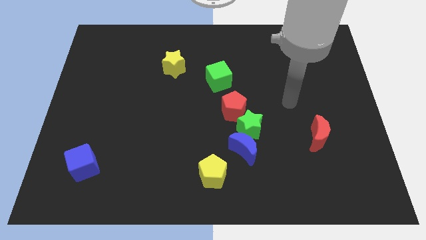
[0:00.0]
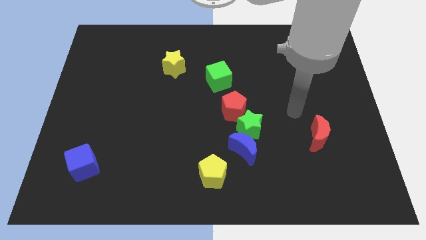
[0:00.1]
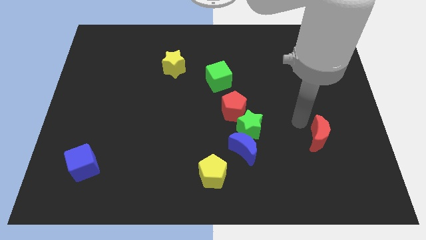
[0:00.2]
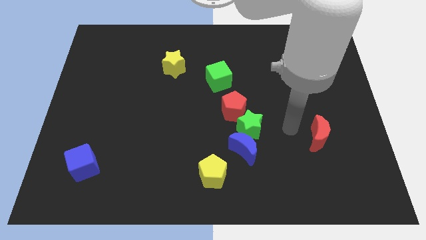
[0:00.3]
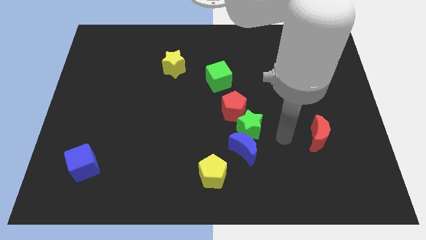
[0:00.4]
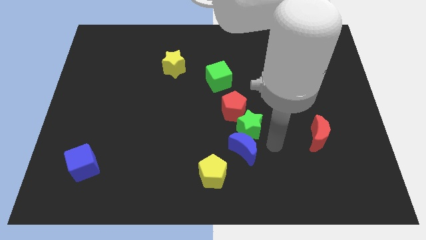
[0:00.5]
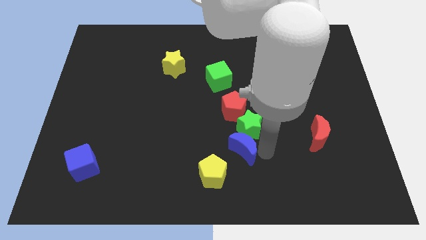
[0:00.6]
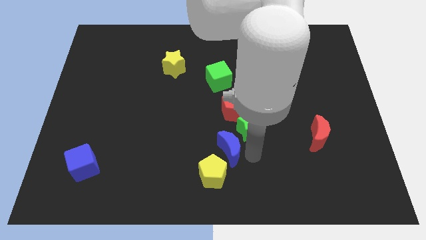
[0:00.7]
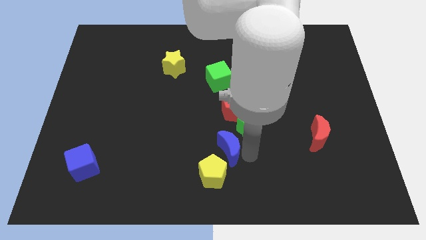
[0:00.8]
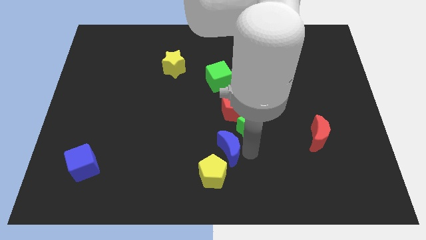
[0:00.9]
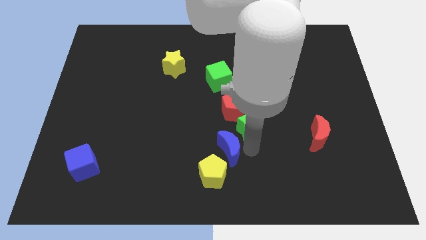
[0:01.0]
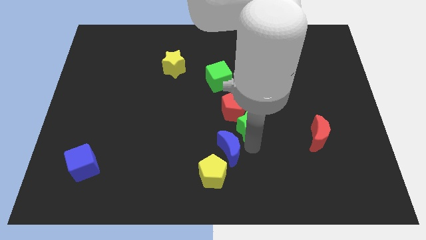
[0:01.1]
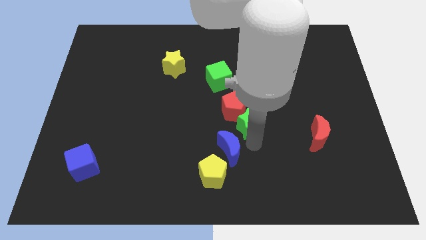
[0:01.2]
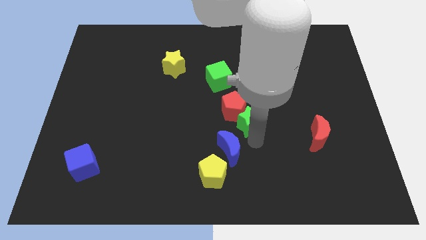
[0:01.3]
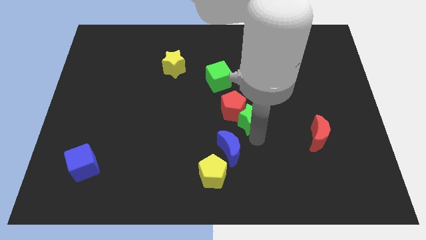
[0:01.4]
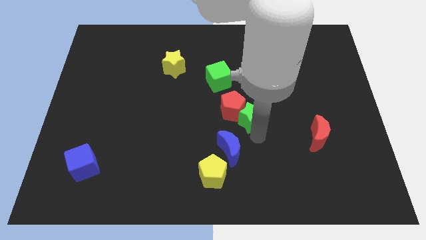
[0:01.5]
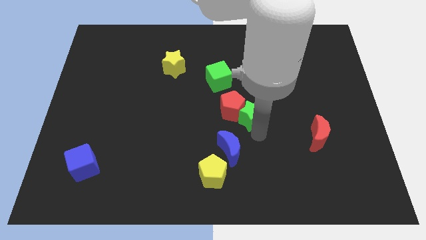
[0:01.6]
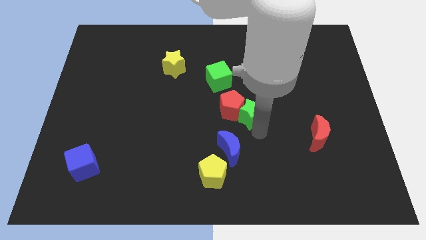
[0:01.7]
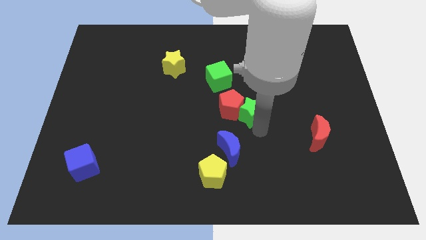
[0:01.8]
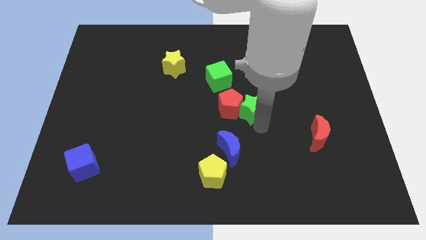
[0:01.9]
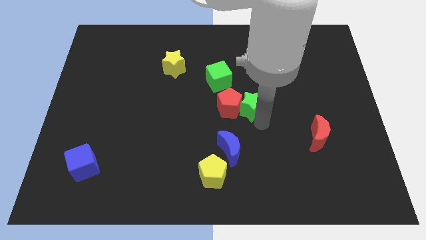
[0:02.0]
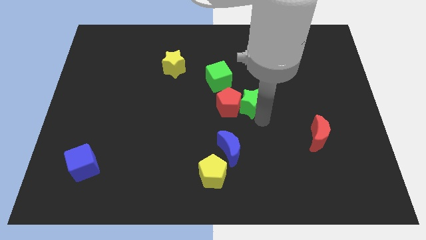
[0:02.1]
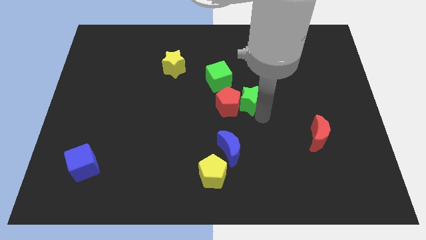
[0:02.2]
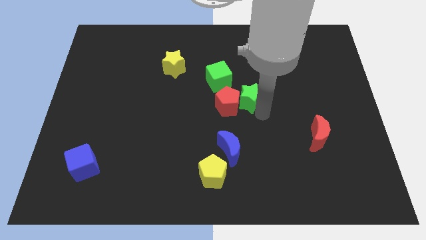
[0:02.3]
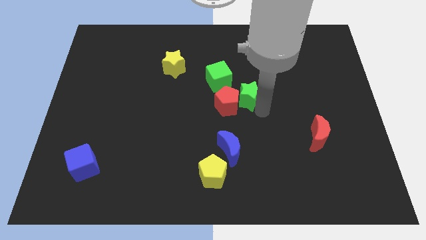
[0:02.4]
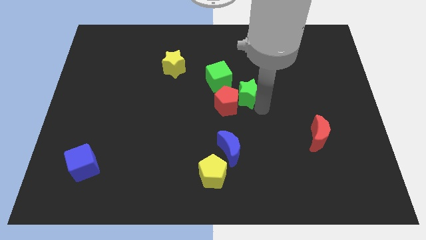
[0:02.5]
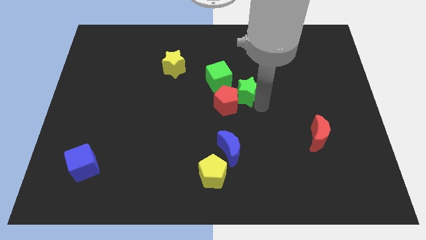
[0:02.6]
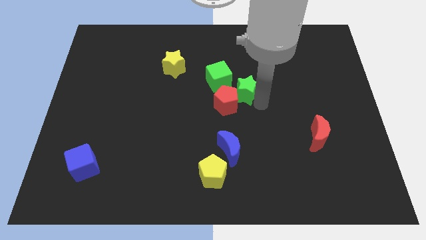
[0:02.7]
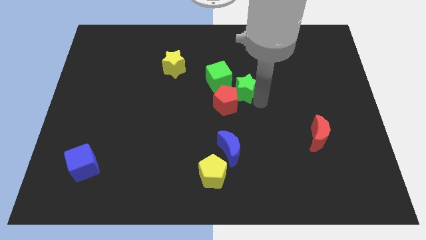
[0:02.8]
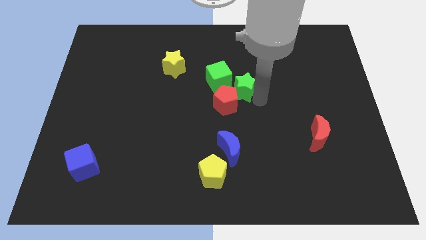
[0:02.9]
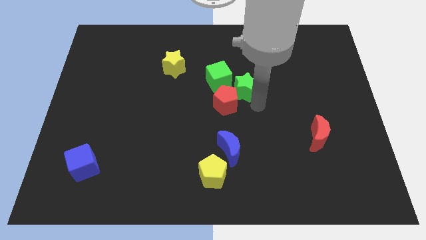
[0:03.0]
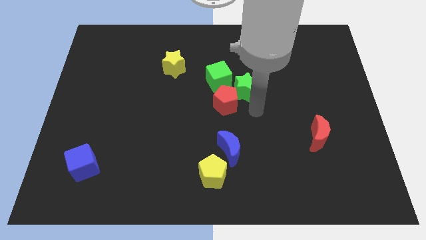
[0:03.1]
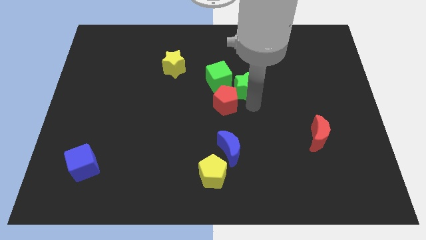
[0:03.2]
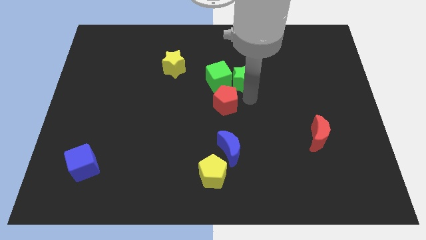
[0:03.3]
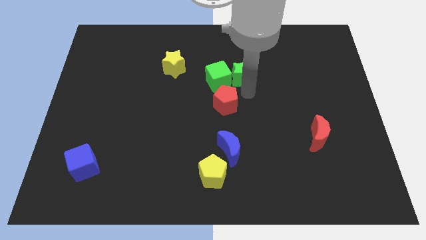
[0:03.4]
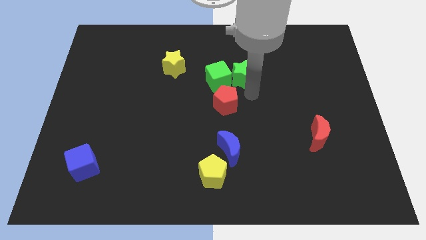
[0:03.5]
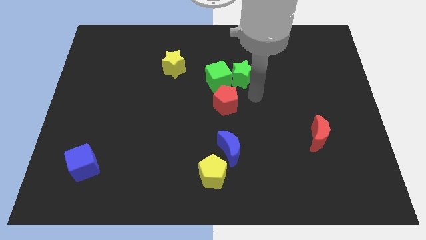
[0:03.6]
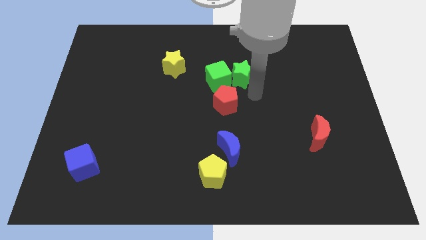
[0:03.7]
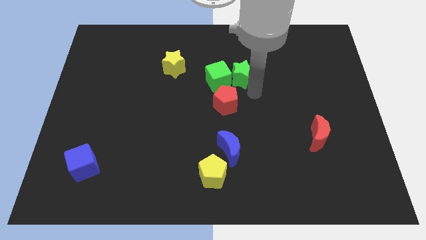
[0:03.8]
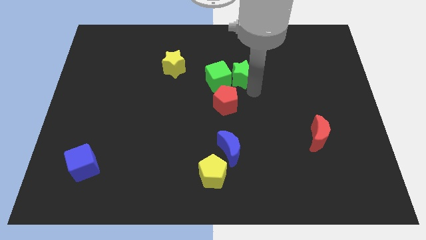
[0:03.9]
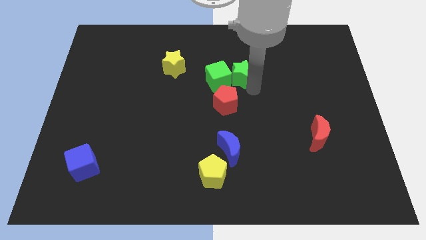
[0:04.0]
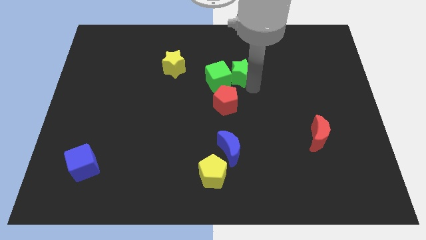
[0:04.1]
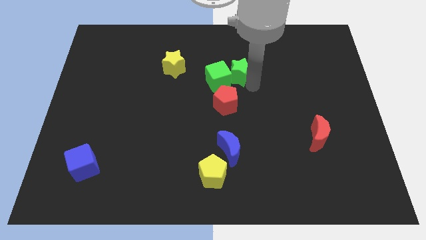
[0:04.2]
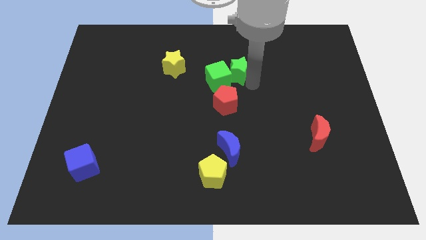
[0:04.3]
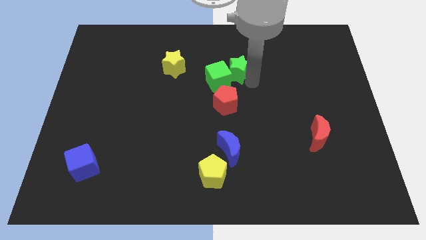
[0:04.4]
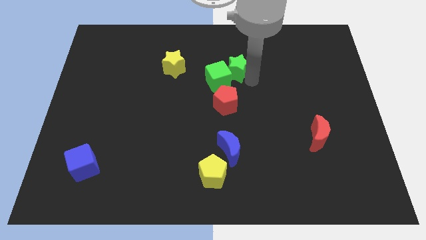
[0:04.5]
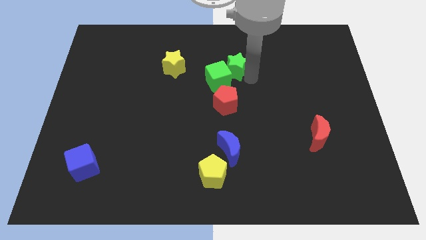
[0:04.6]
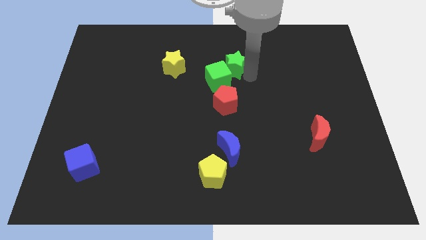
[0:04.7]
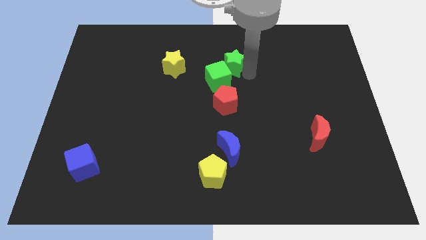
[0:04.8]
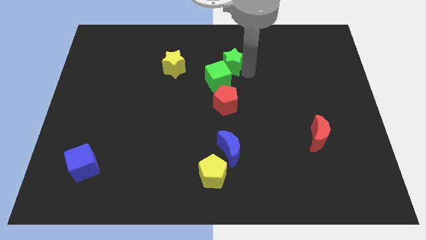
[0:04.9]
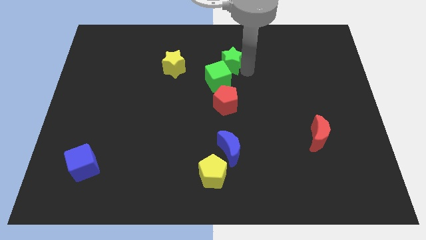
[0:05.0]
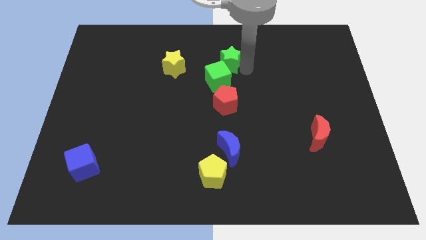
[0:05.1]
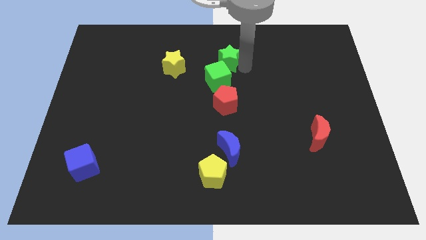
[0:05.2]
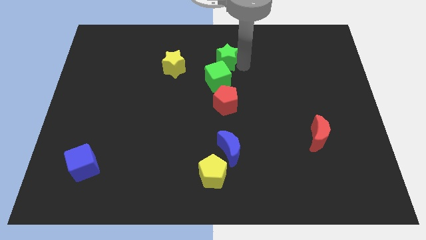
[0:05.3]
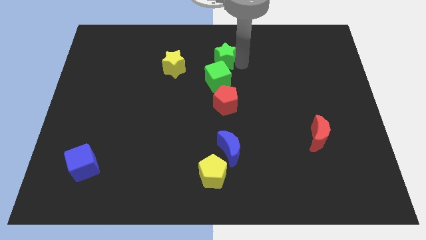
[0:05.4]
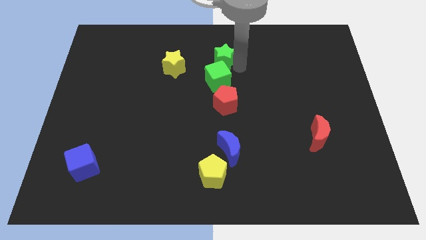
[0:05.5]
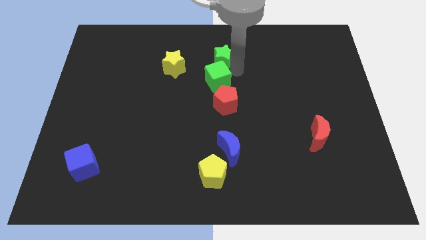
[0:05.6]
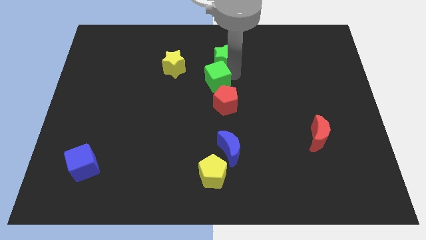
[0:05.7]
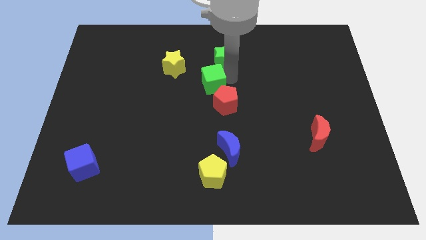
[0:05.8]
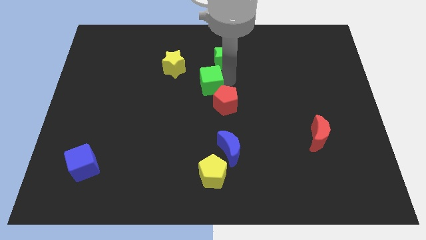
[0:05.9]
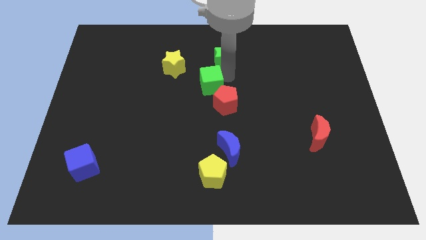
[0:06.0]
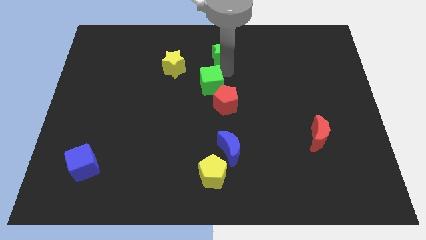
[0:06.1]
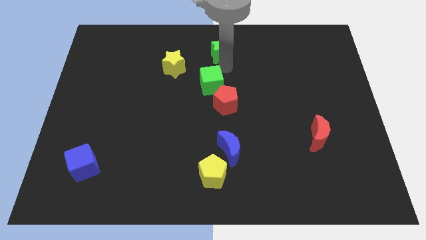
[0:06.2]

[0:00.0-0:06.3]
put the green star to the top
